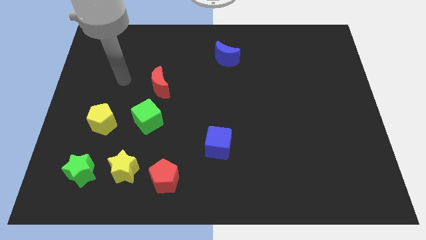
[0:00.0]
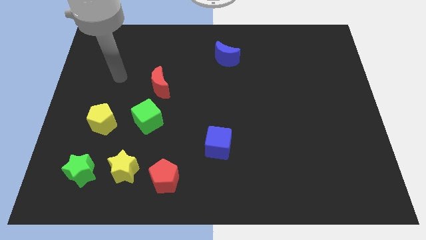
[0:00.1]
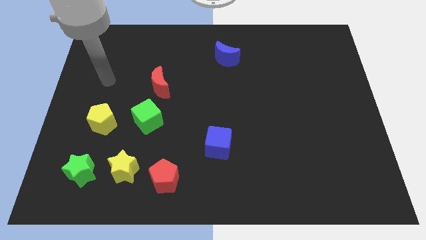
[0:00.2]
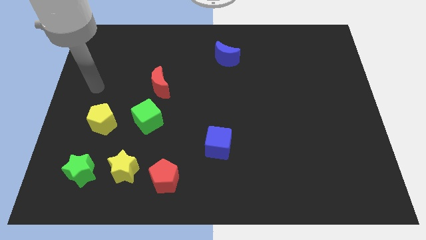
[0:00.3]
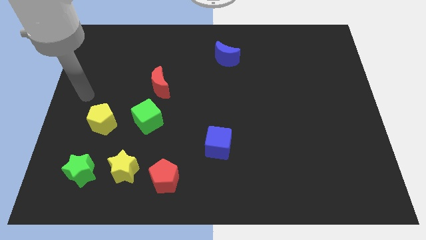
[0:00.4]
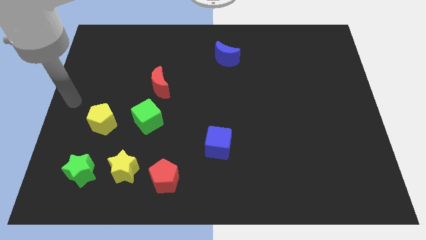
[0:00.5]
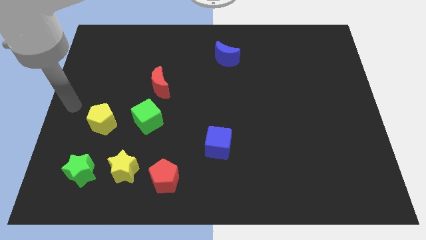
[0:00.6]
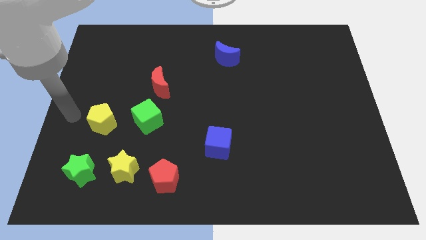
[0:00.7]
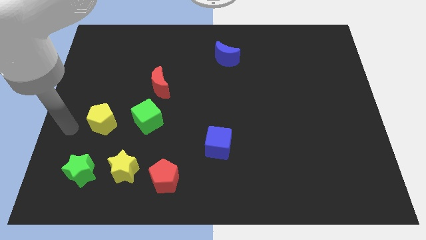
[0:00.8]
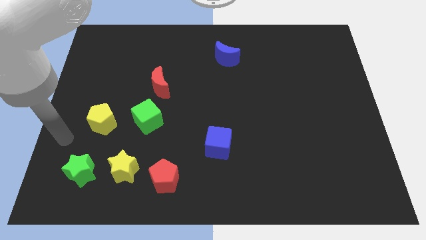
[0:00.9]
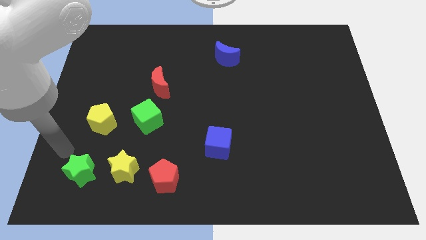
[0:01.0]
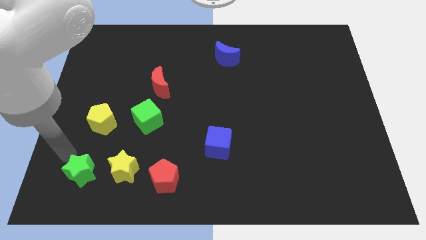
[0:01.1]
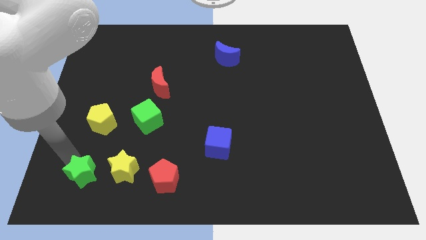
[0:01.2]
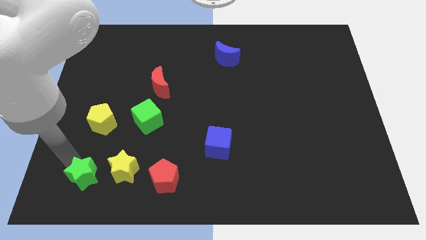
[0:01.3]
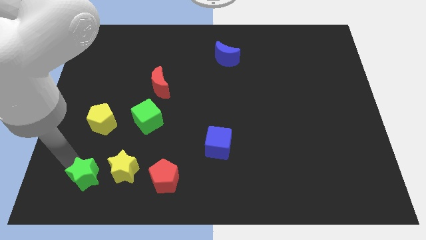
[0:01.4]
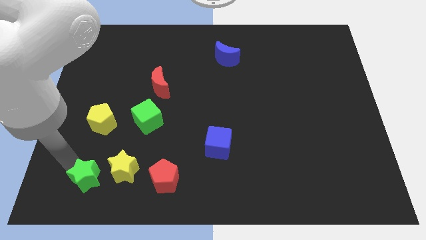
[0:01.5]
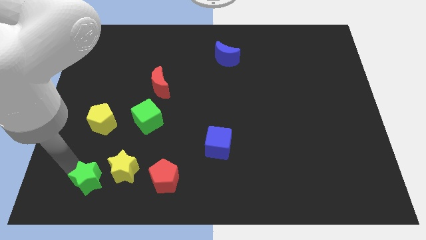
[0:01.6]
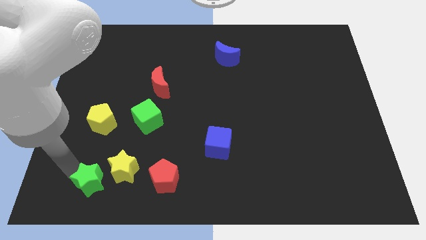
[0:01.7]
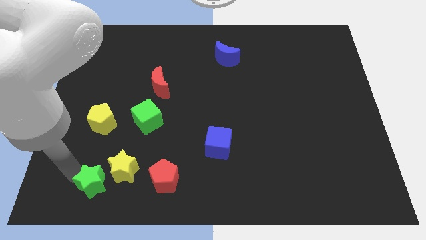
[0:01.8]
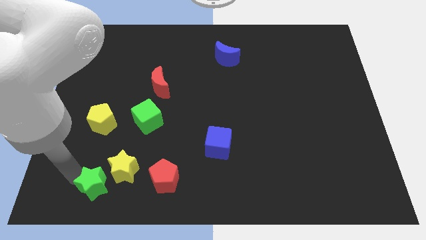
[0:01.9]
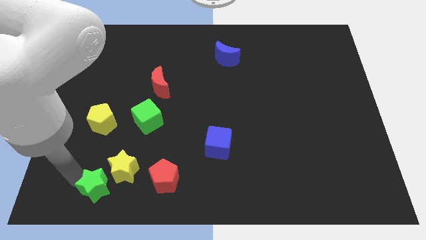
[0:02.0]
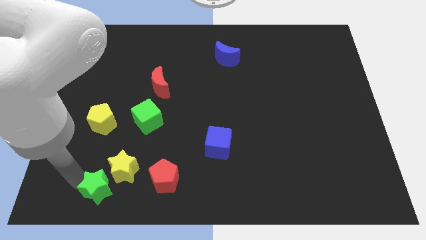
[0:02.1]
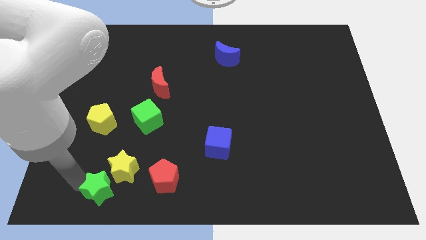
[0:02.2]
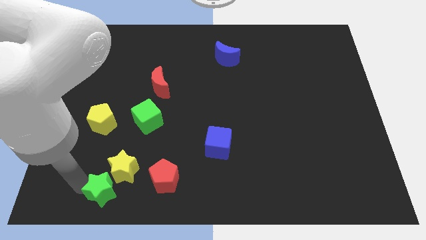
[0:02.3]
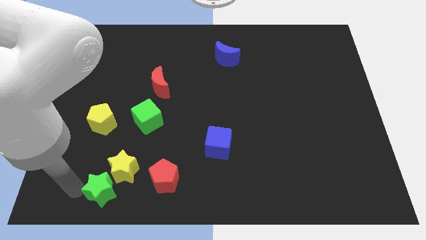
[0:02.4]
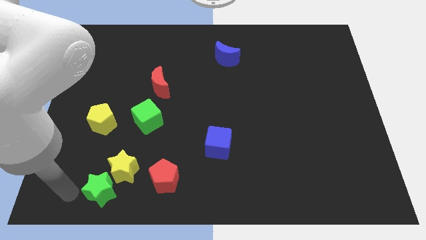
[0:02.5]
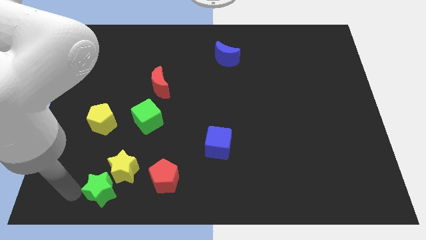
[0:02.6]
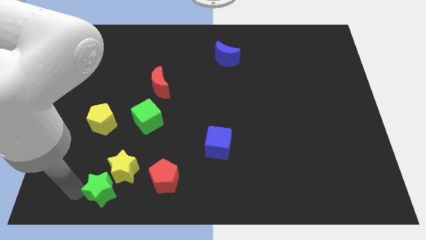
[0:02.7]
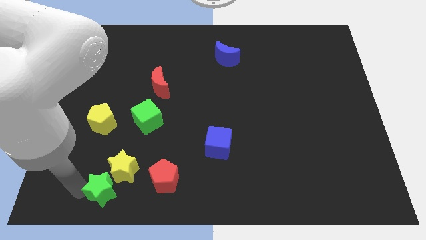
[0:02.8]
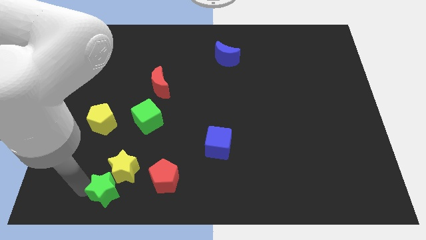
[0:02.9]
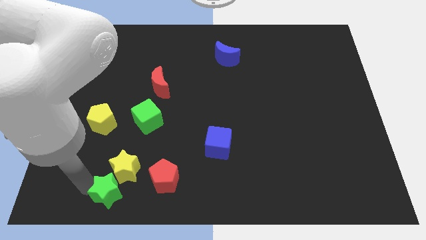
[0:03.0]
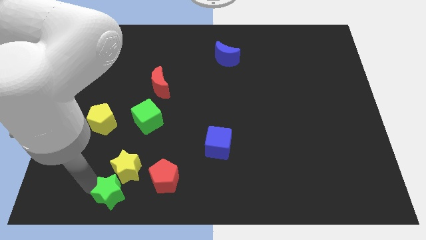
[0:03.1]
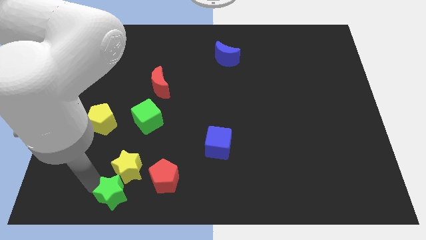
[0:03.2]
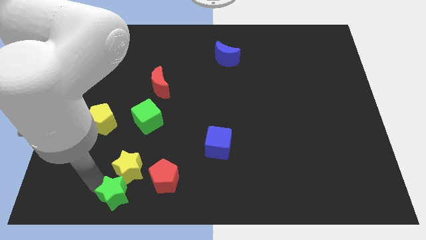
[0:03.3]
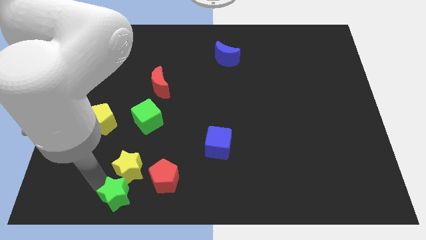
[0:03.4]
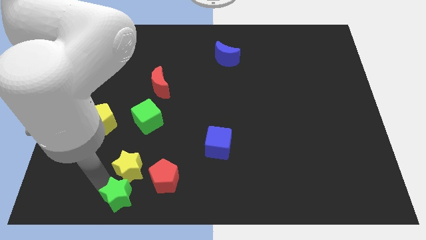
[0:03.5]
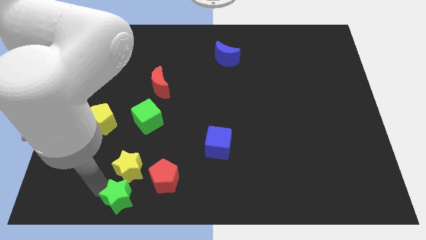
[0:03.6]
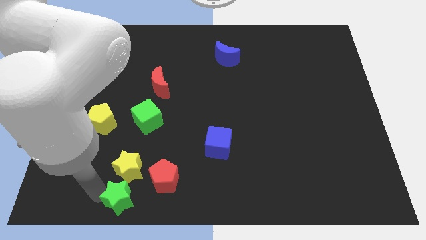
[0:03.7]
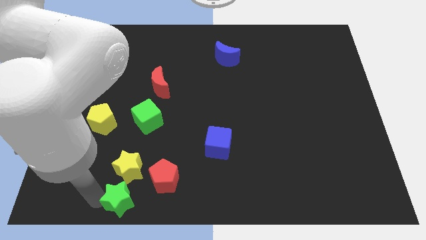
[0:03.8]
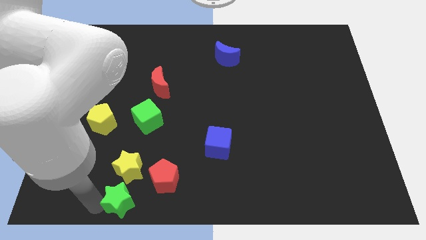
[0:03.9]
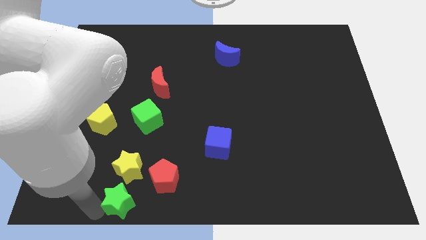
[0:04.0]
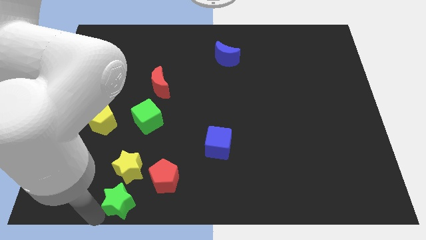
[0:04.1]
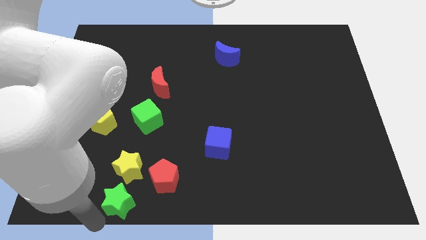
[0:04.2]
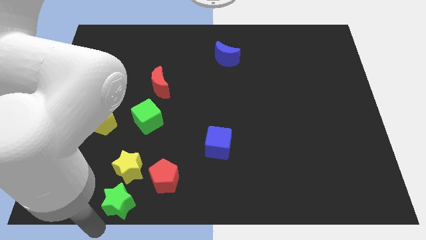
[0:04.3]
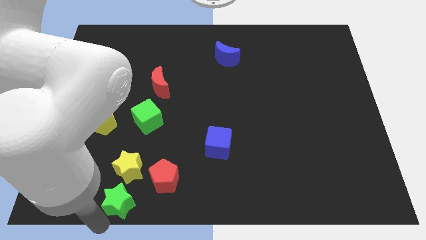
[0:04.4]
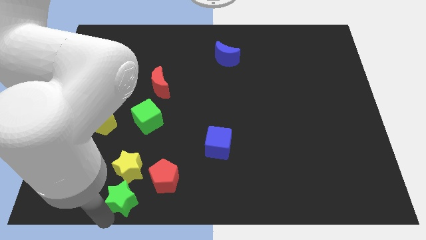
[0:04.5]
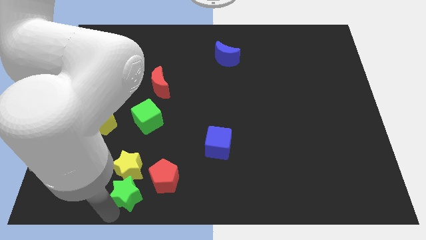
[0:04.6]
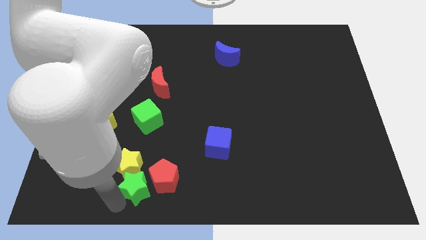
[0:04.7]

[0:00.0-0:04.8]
move the green star to the red pentagon

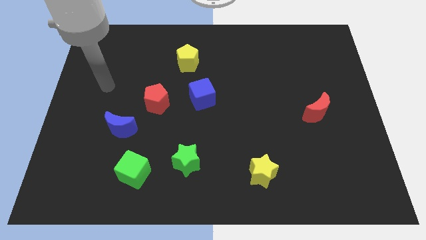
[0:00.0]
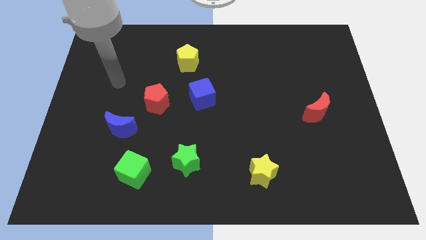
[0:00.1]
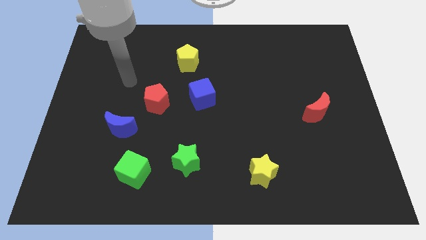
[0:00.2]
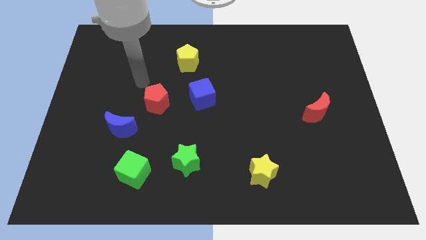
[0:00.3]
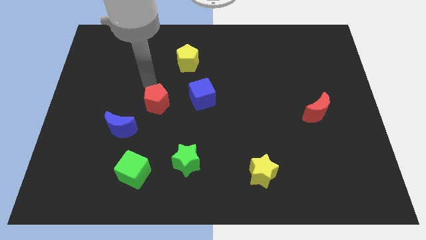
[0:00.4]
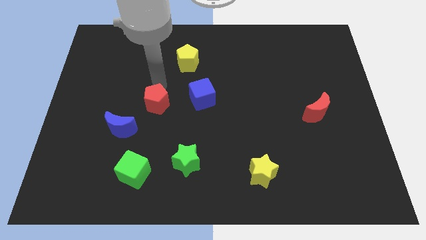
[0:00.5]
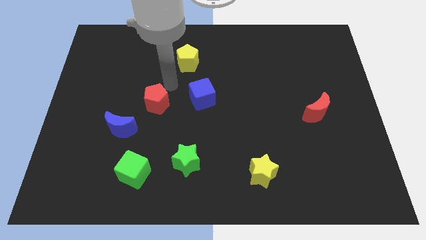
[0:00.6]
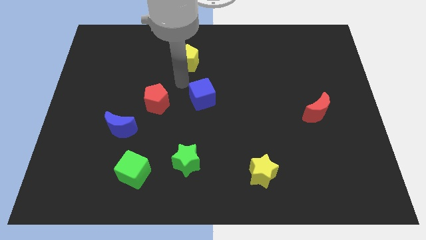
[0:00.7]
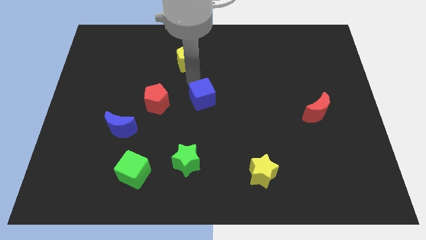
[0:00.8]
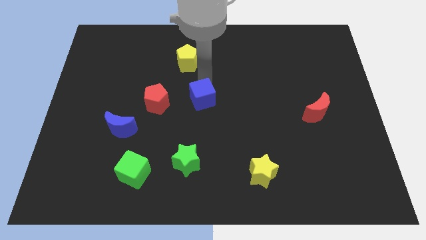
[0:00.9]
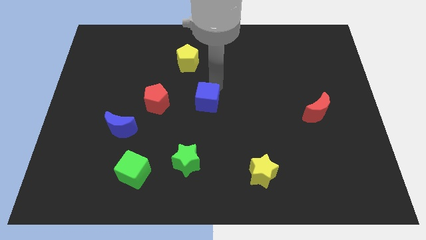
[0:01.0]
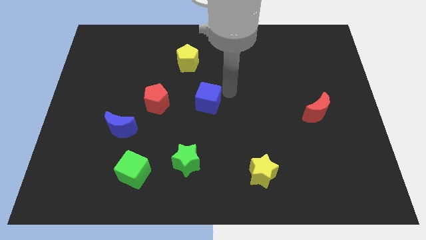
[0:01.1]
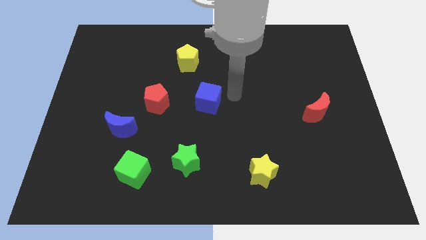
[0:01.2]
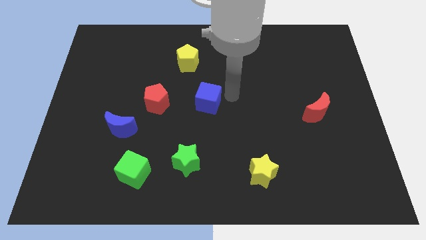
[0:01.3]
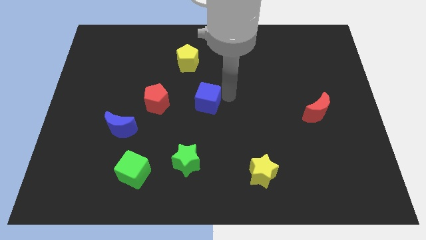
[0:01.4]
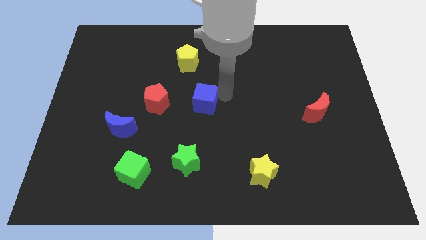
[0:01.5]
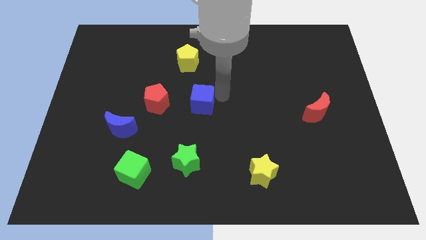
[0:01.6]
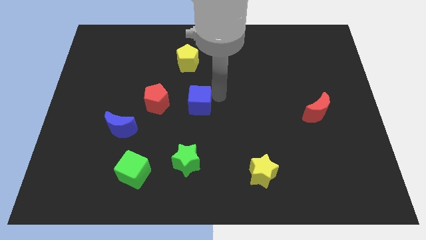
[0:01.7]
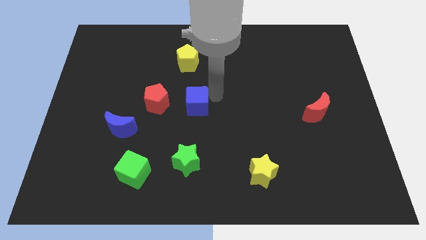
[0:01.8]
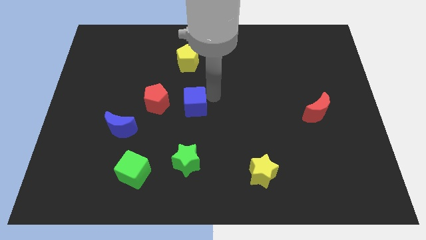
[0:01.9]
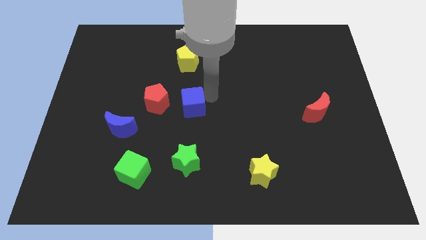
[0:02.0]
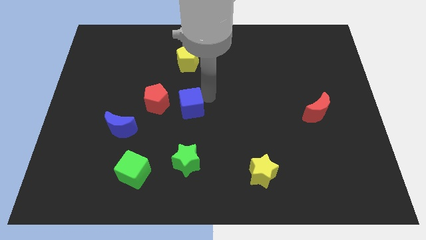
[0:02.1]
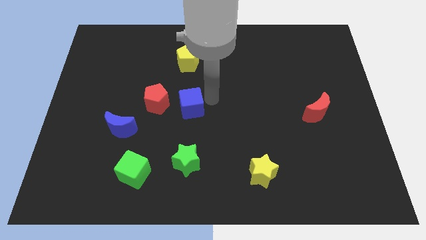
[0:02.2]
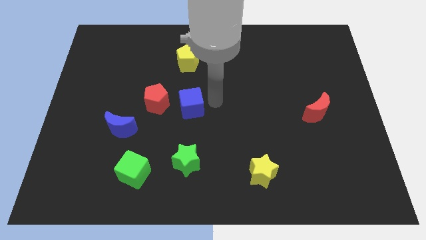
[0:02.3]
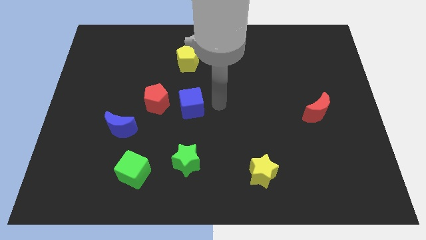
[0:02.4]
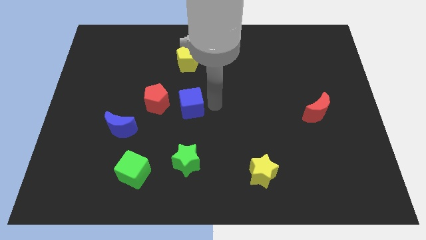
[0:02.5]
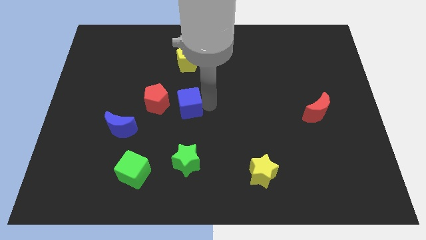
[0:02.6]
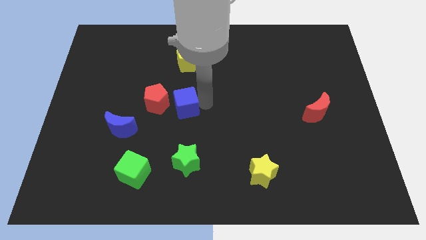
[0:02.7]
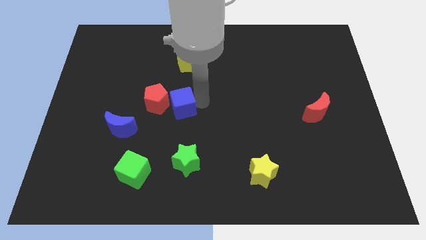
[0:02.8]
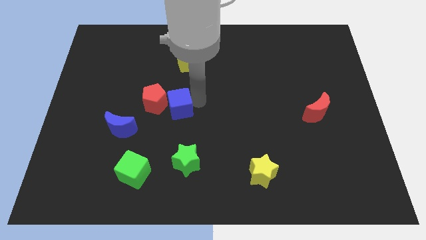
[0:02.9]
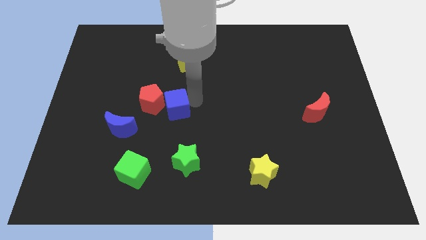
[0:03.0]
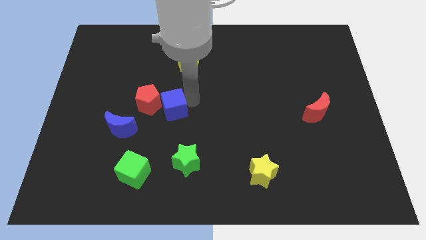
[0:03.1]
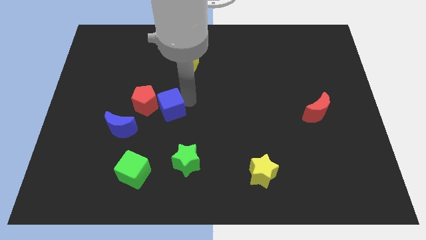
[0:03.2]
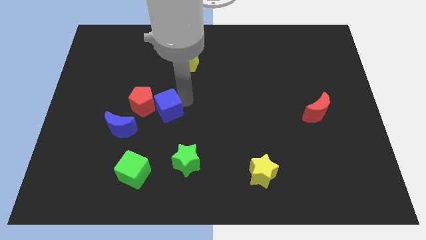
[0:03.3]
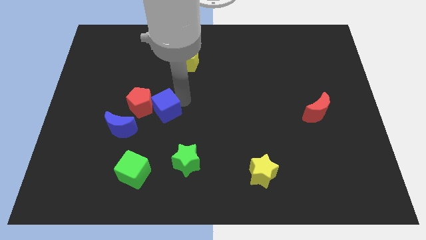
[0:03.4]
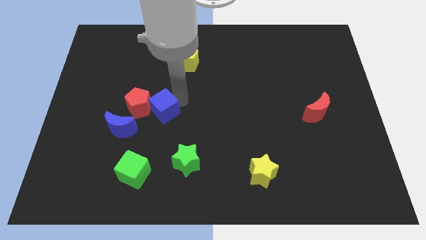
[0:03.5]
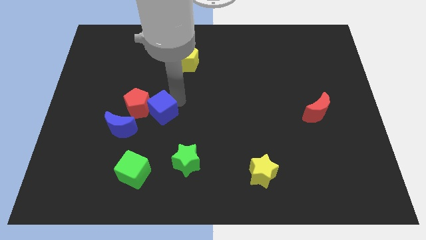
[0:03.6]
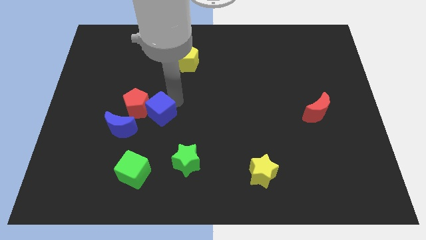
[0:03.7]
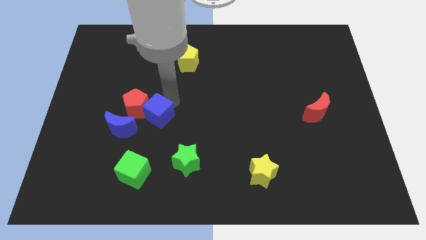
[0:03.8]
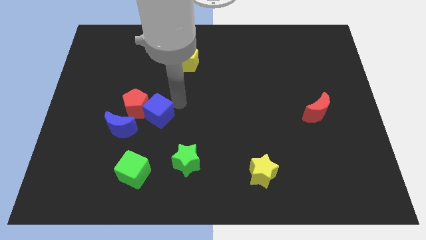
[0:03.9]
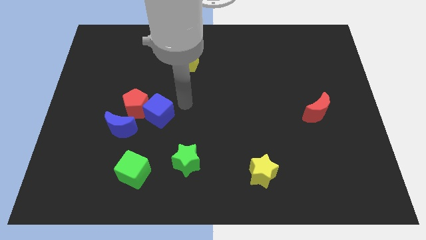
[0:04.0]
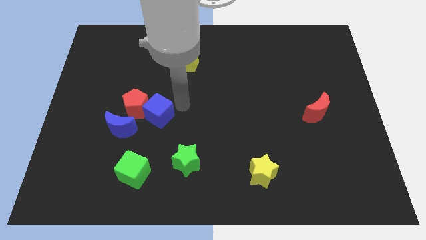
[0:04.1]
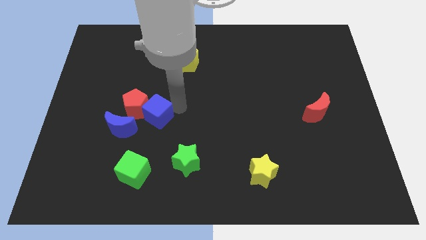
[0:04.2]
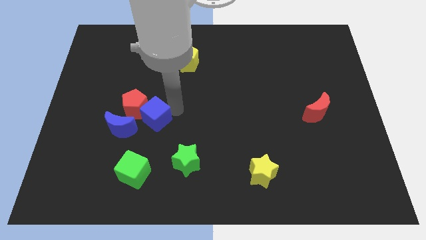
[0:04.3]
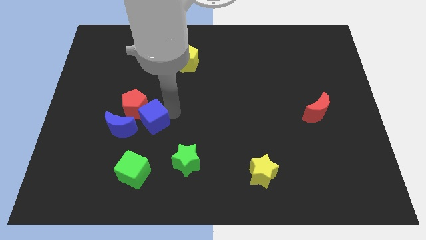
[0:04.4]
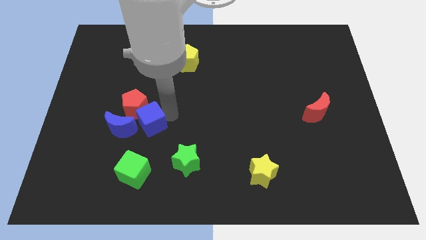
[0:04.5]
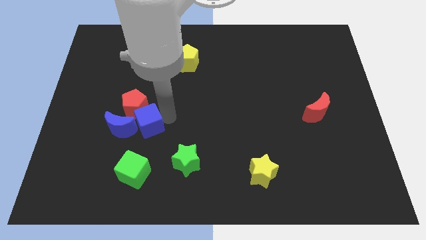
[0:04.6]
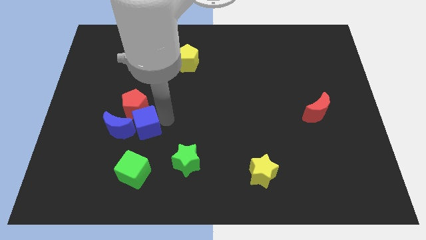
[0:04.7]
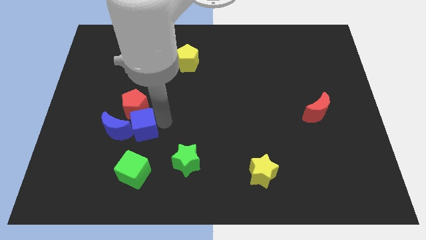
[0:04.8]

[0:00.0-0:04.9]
slide the blue cube to the blue moon
